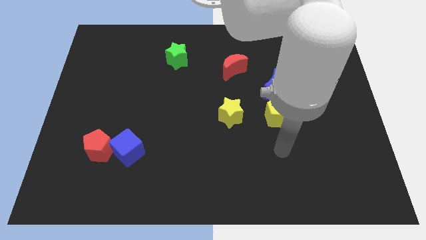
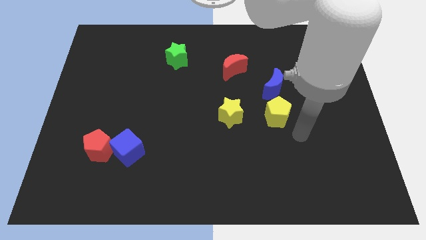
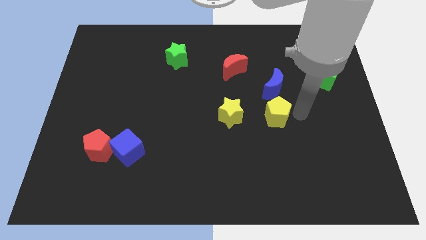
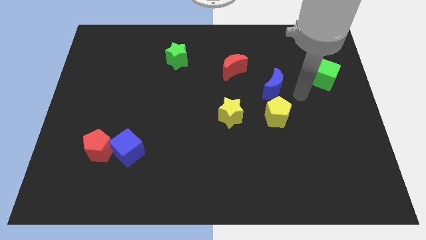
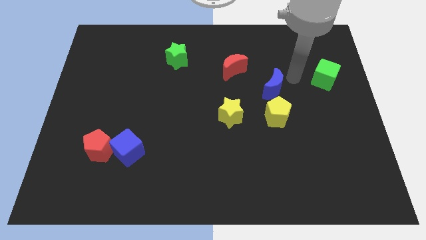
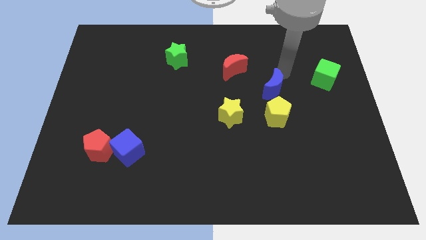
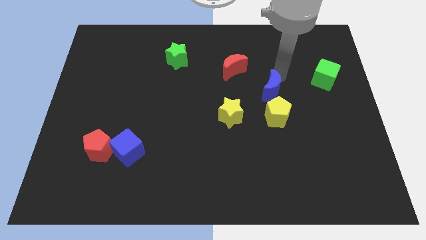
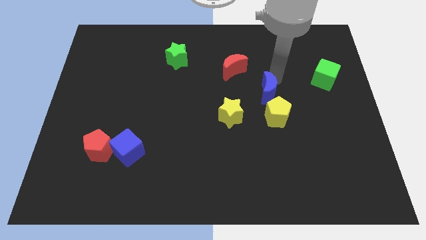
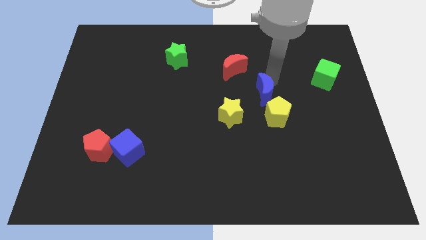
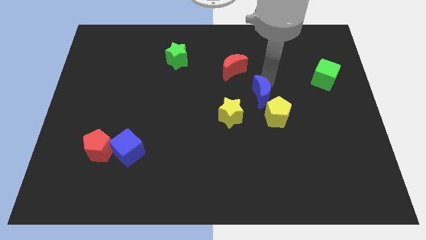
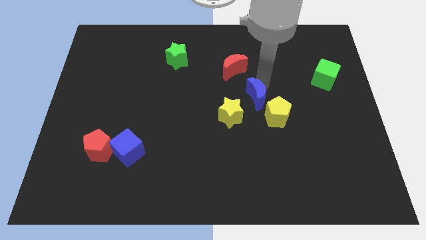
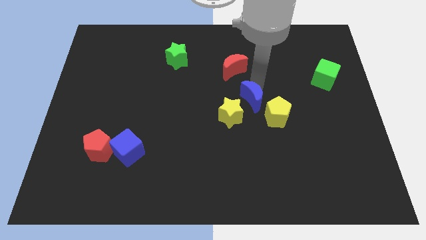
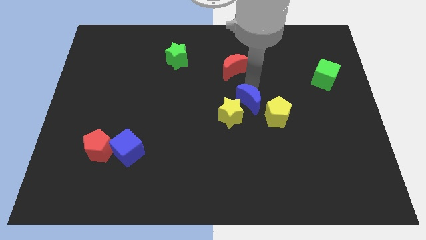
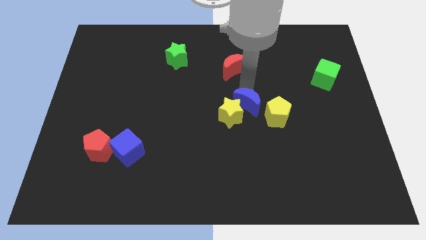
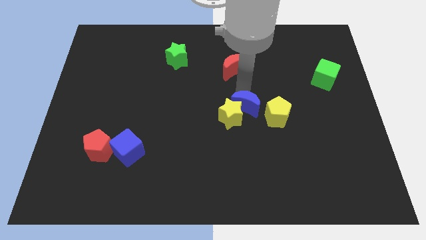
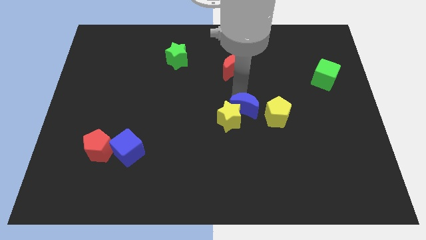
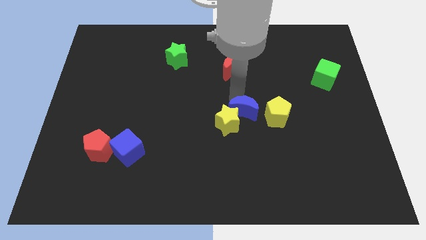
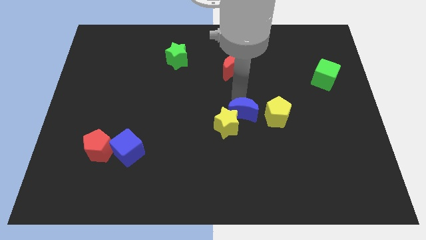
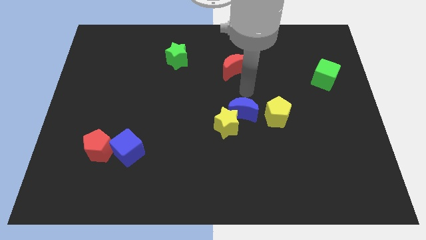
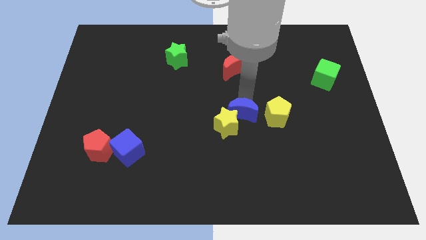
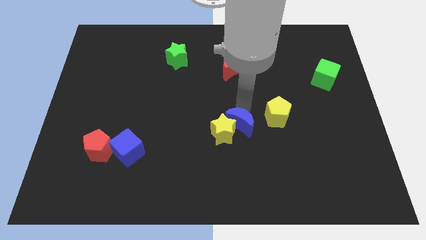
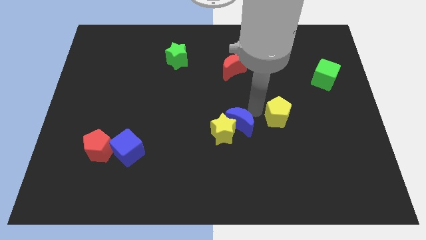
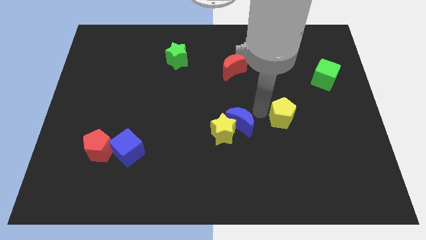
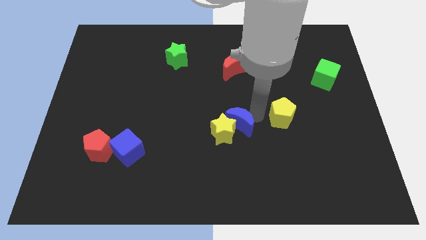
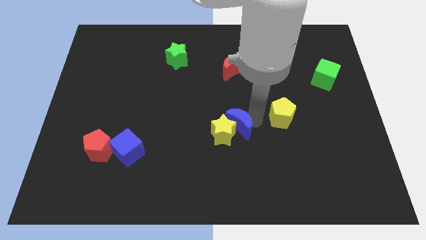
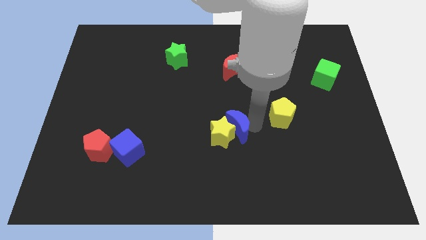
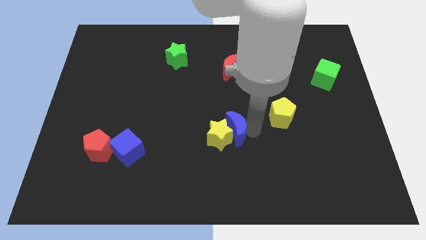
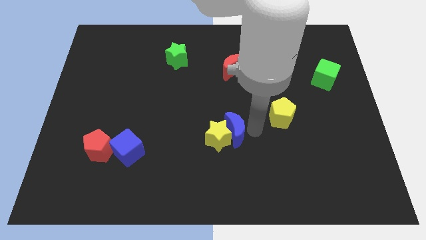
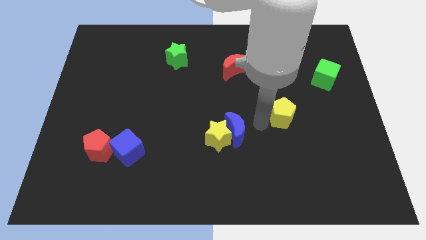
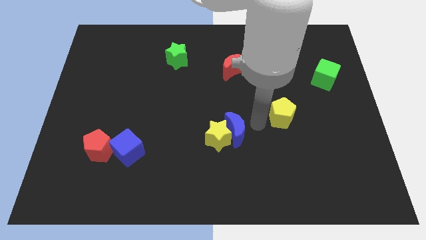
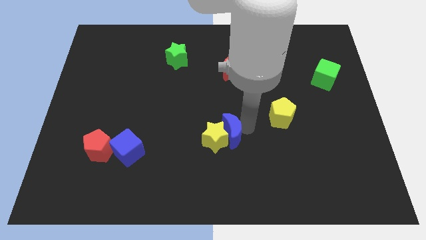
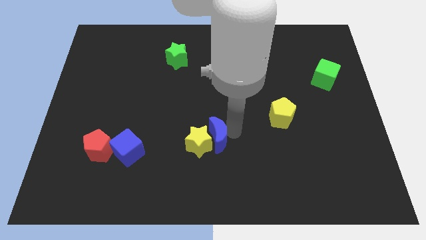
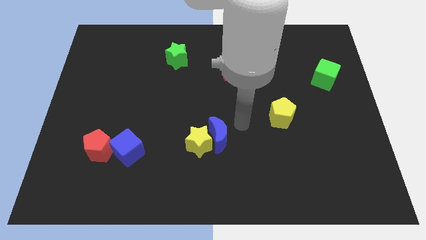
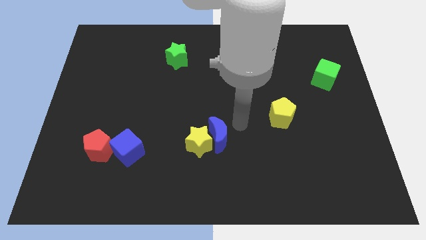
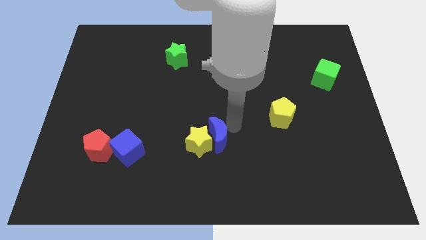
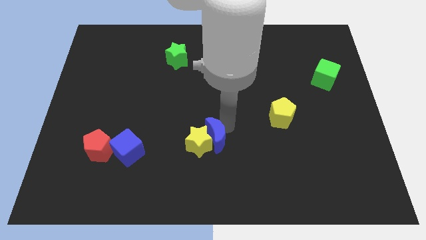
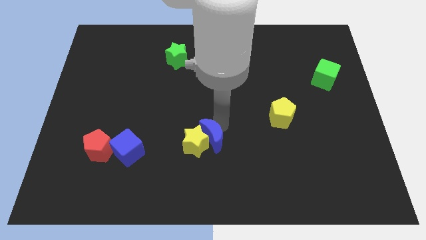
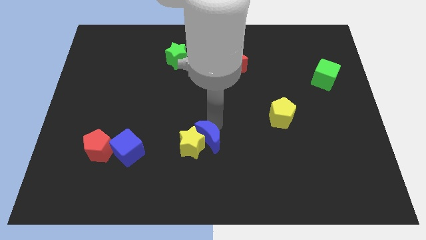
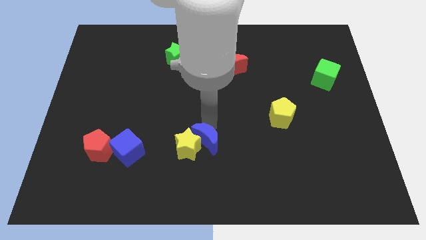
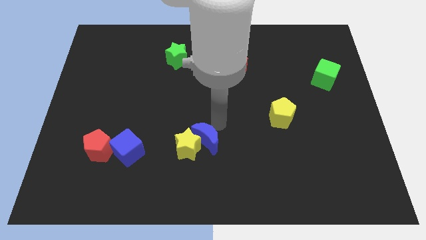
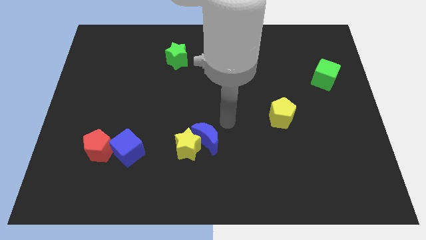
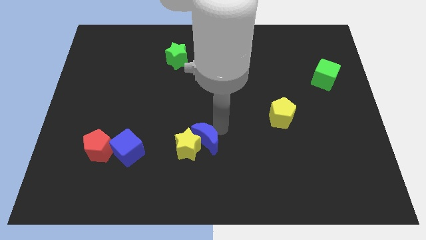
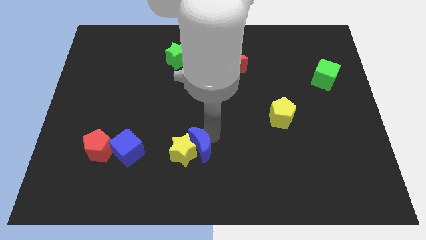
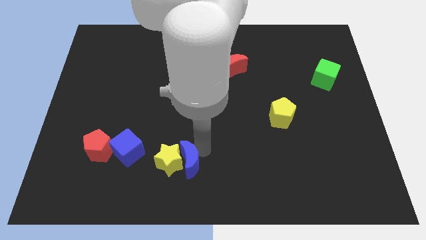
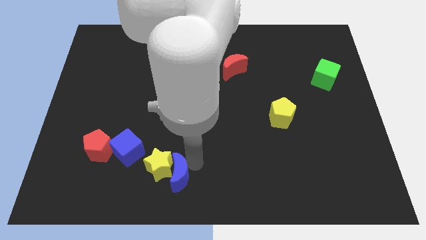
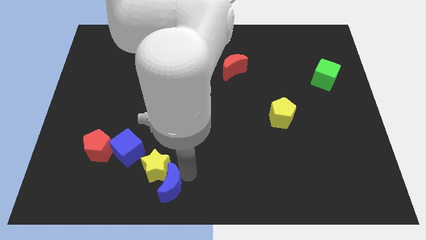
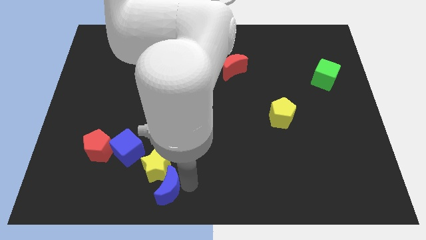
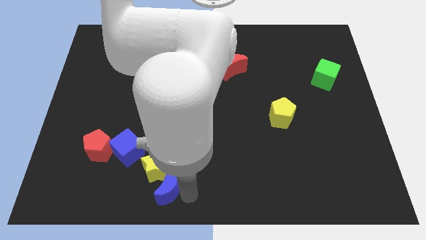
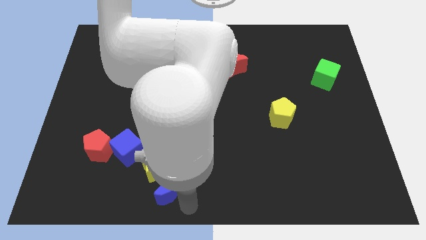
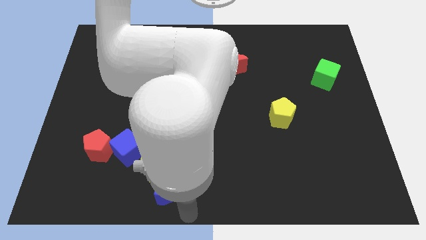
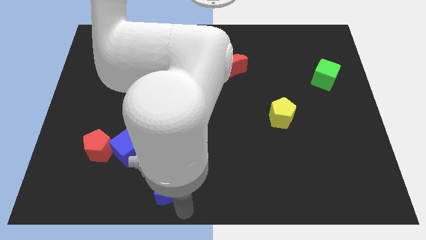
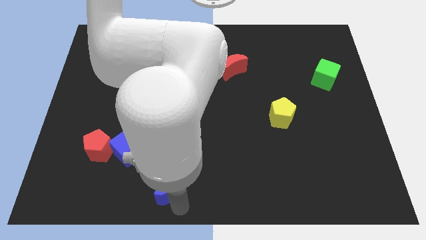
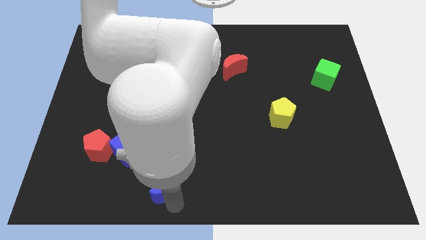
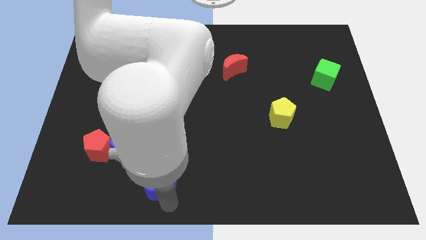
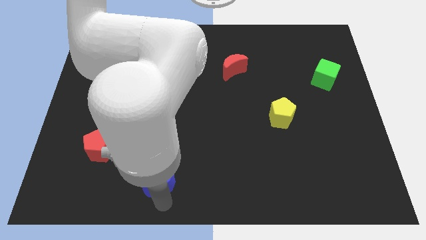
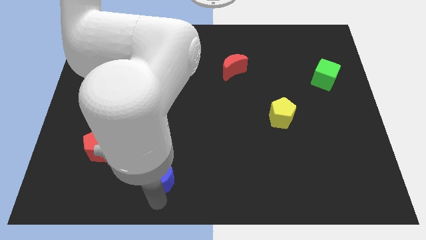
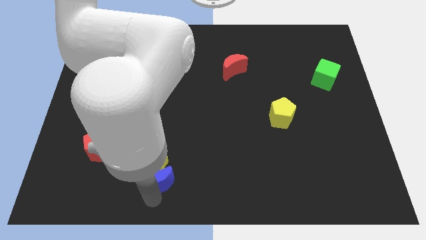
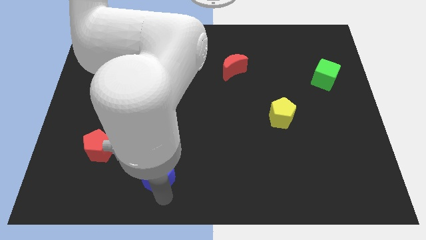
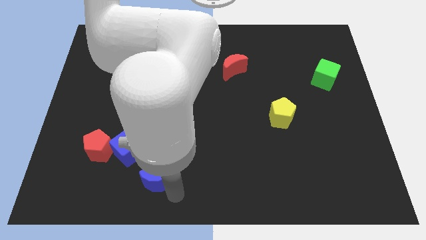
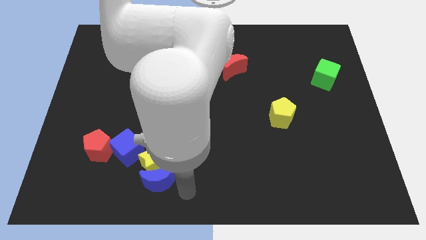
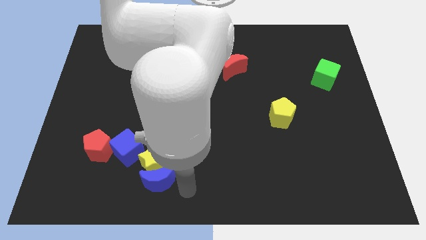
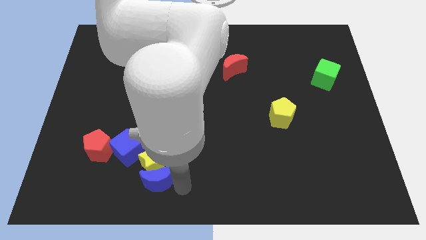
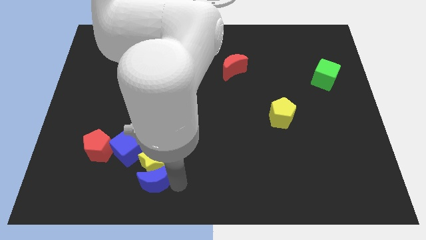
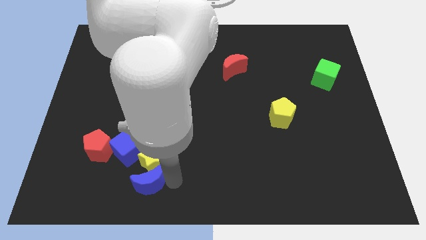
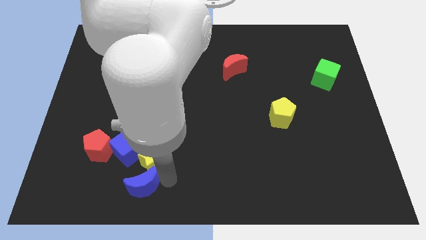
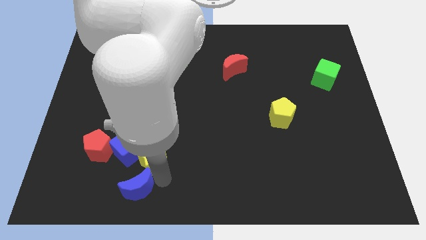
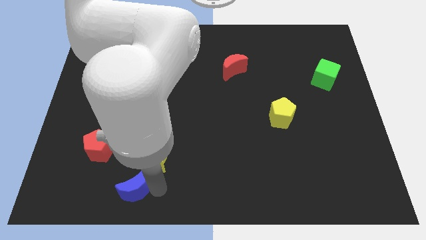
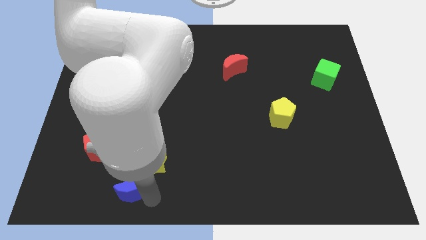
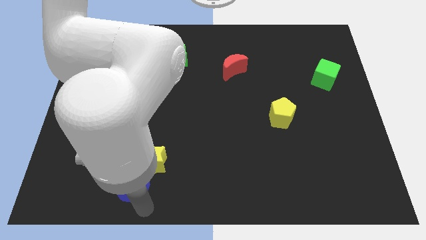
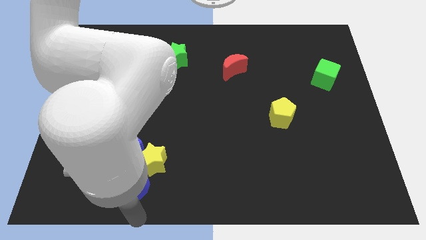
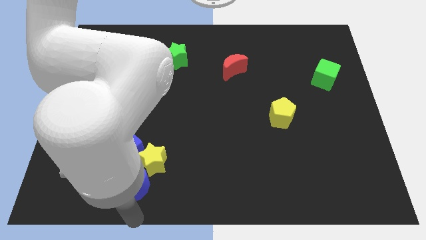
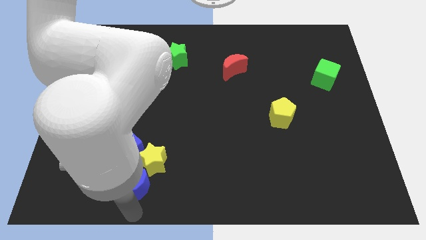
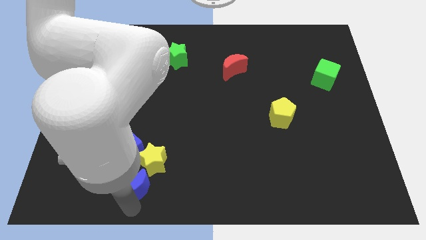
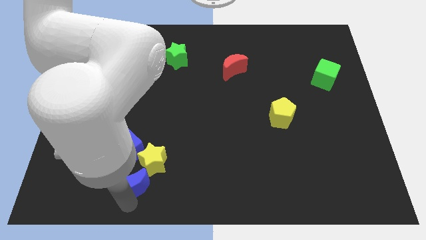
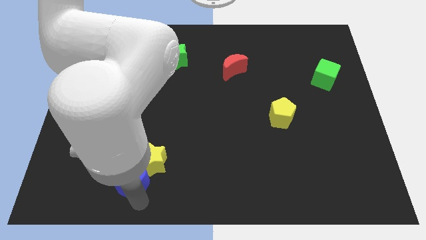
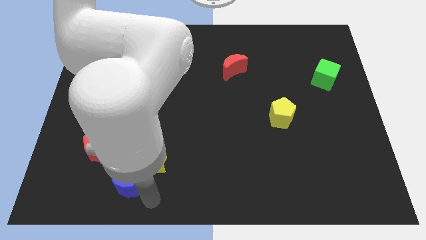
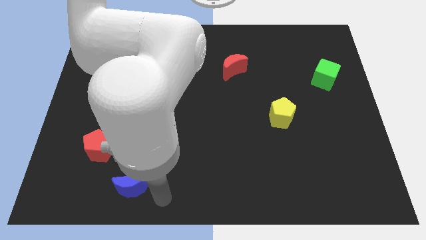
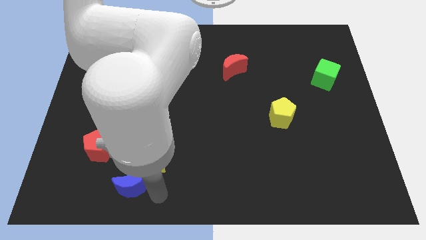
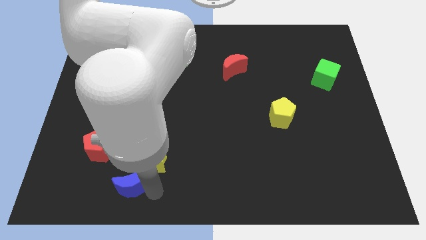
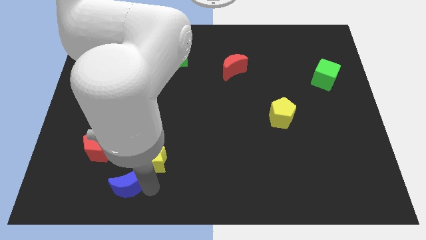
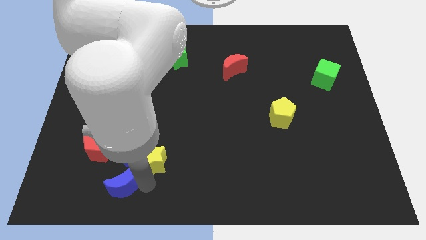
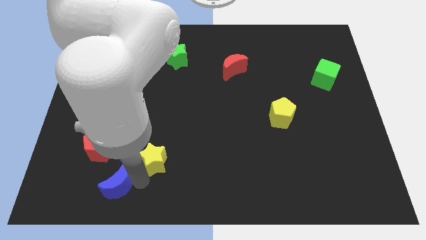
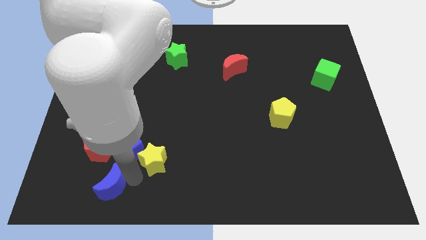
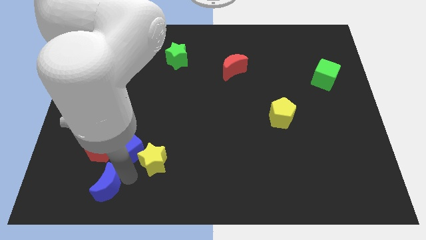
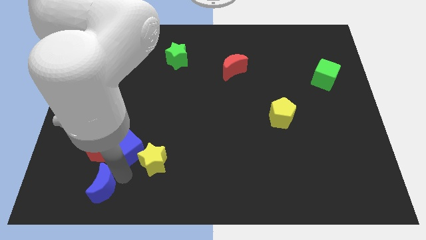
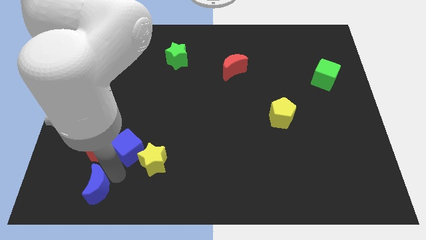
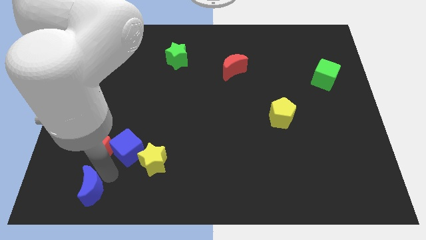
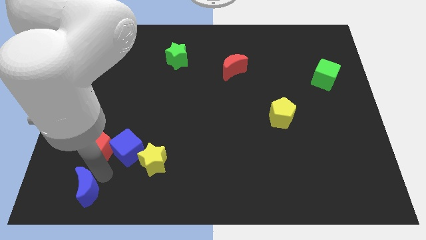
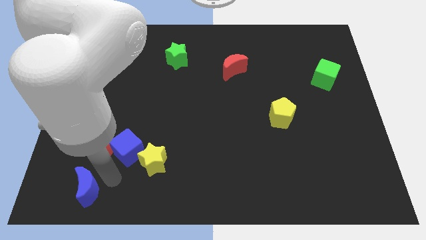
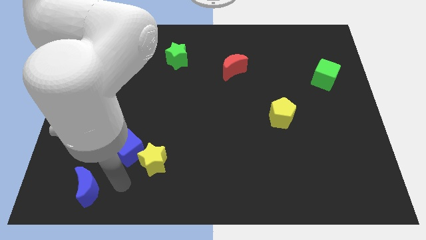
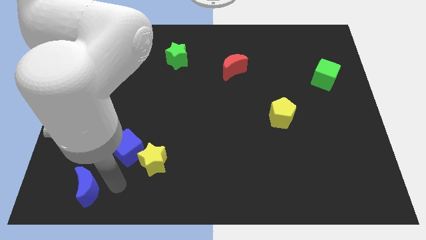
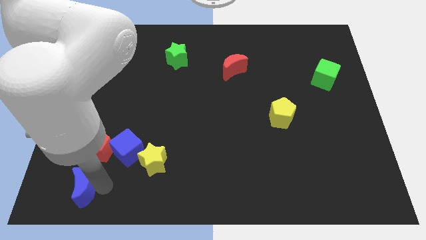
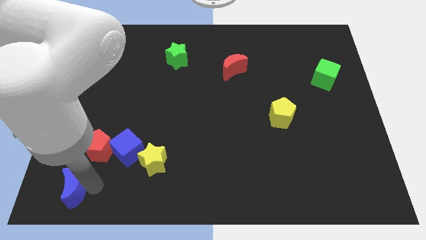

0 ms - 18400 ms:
put the blue moon to the lower left corner
